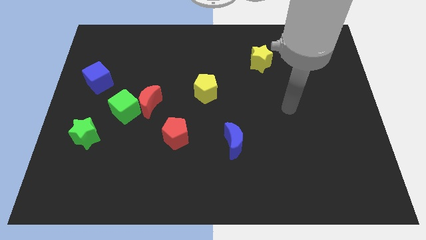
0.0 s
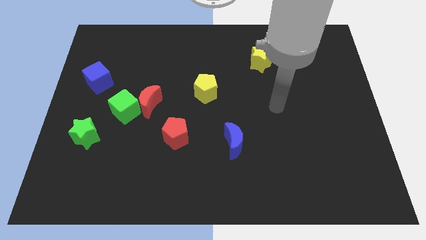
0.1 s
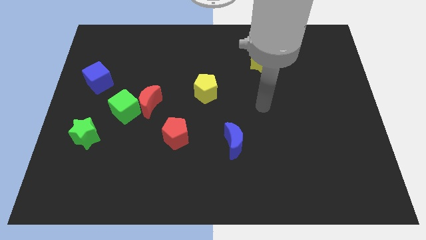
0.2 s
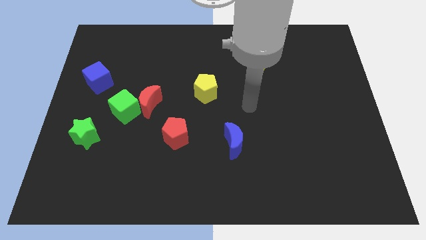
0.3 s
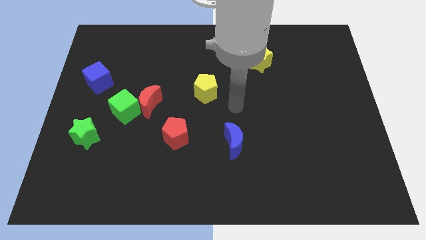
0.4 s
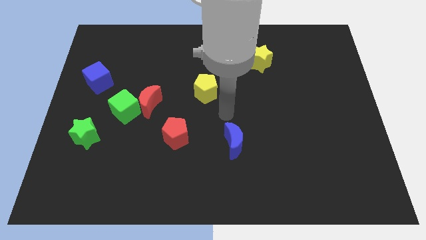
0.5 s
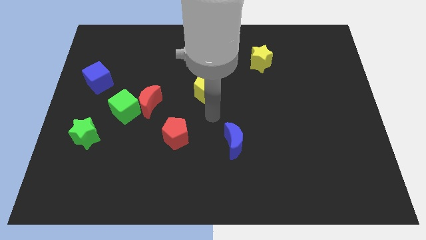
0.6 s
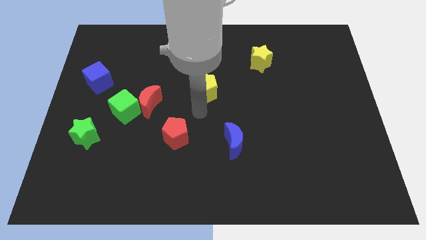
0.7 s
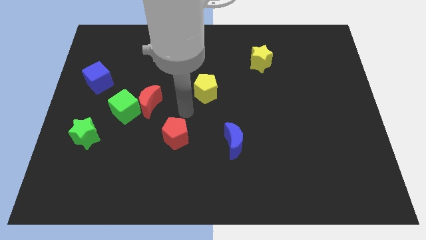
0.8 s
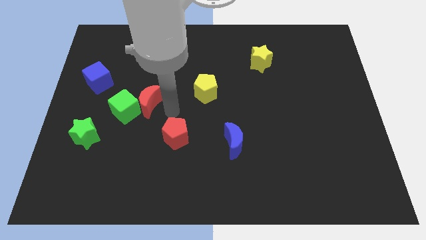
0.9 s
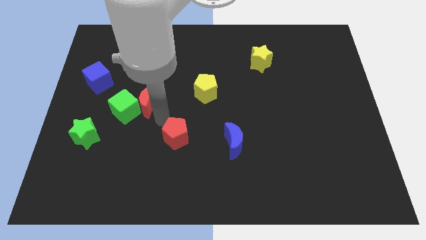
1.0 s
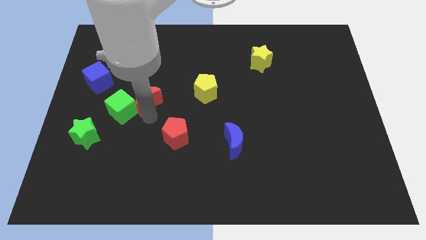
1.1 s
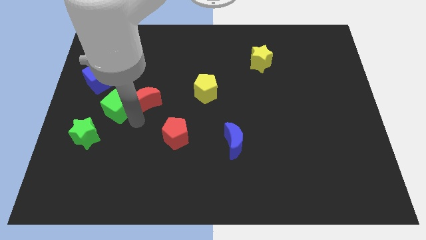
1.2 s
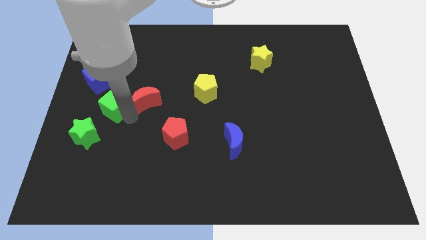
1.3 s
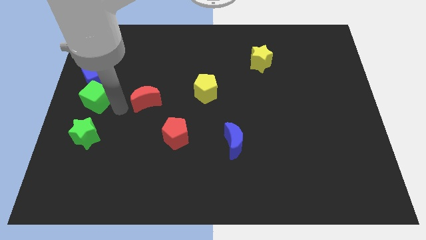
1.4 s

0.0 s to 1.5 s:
pull the red moon apart from the green cube

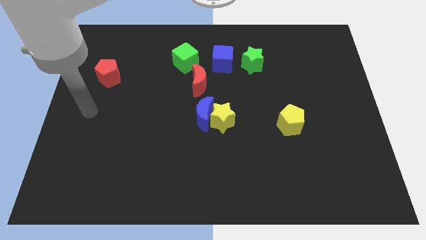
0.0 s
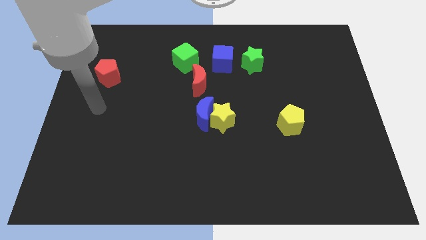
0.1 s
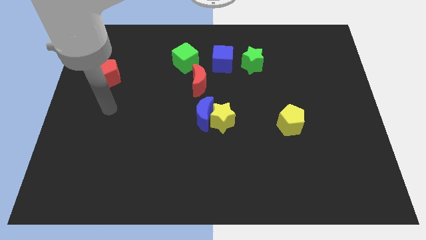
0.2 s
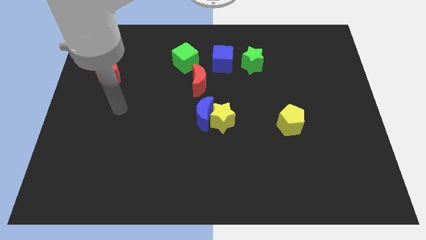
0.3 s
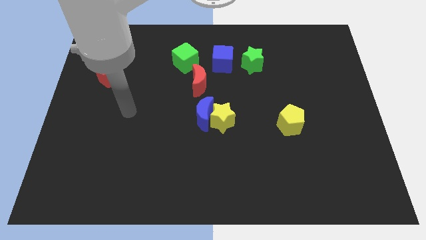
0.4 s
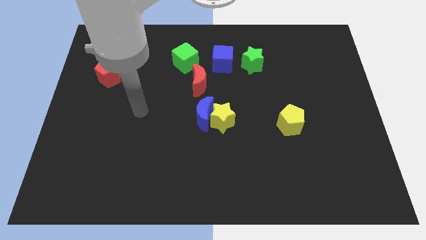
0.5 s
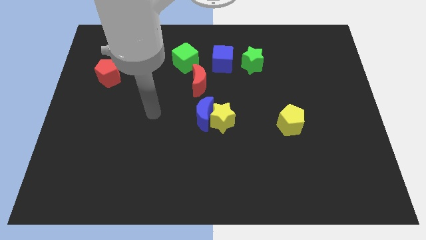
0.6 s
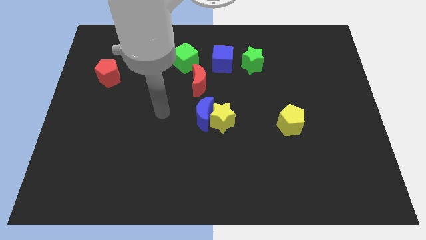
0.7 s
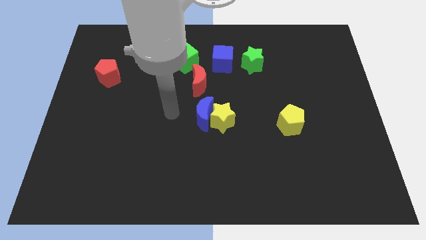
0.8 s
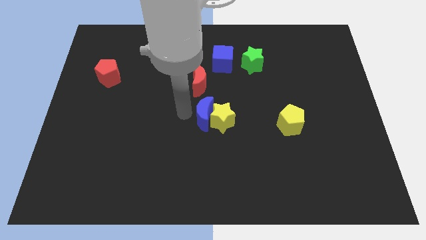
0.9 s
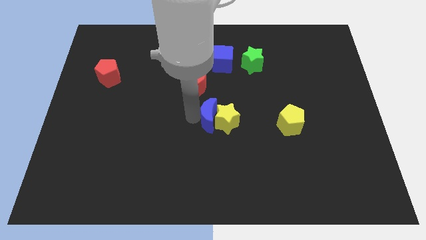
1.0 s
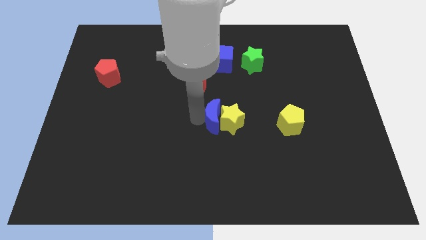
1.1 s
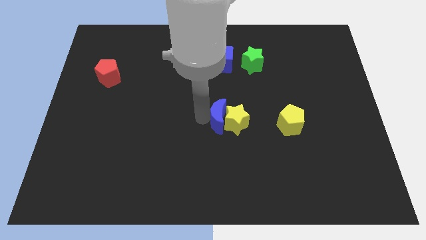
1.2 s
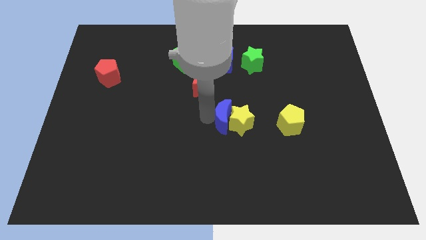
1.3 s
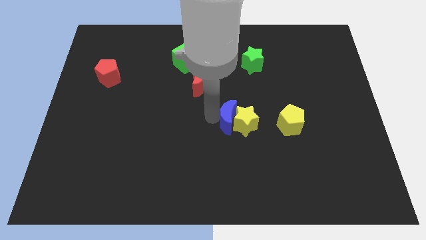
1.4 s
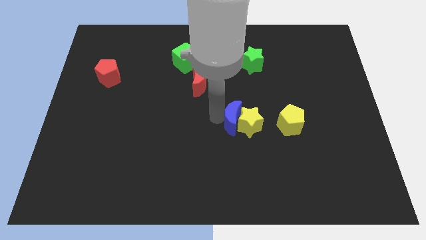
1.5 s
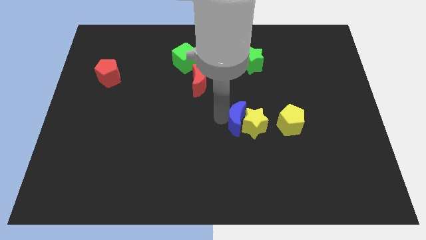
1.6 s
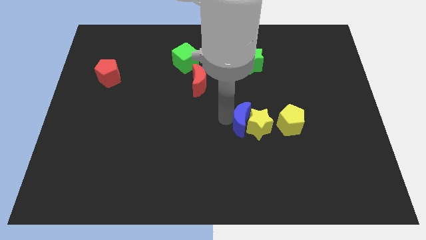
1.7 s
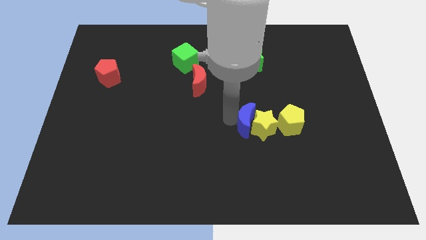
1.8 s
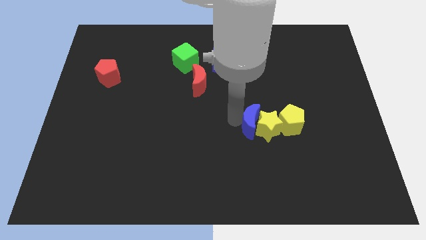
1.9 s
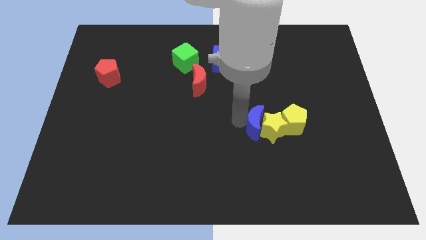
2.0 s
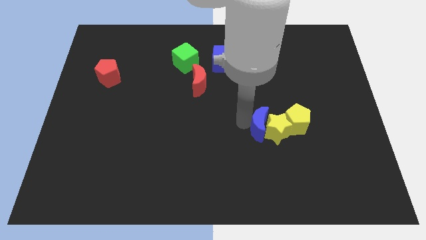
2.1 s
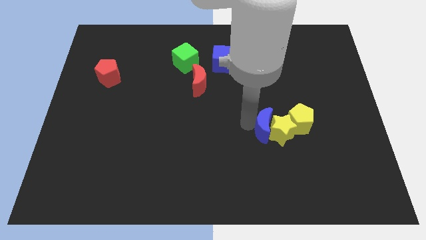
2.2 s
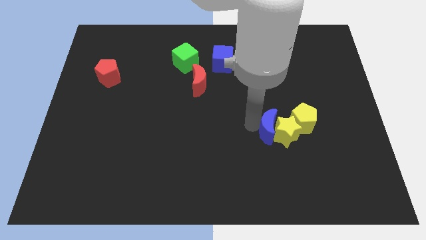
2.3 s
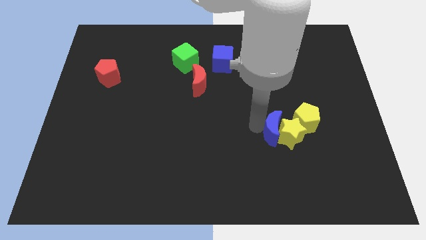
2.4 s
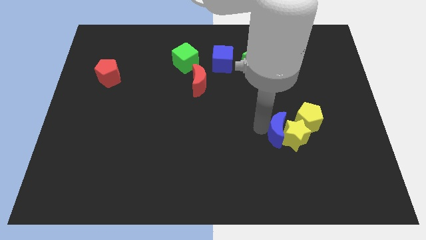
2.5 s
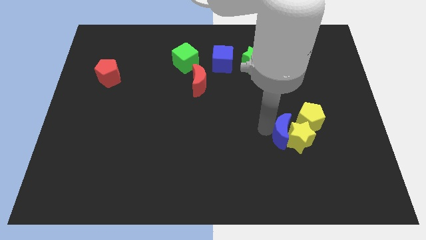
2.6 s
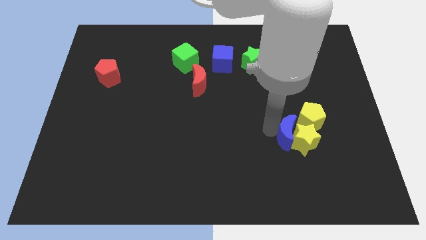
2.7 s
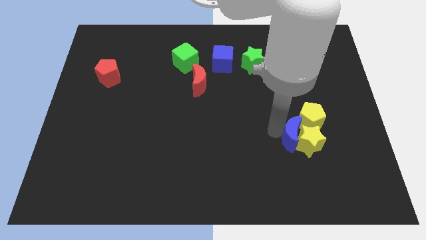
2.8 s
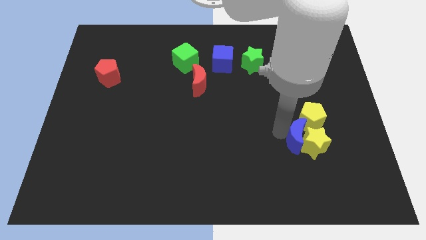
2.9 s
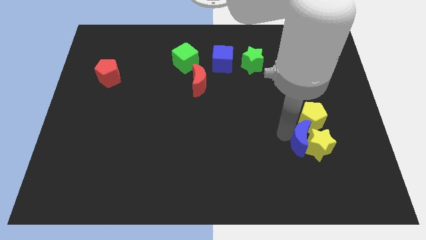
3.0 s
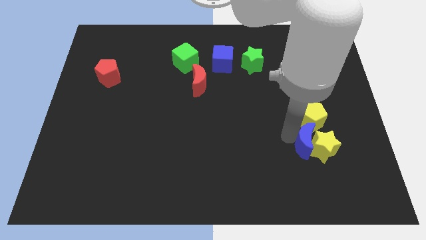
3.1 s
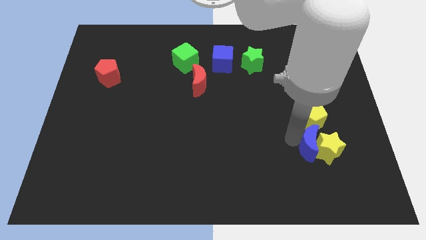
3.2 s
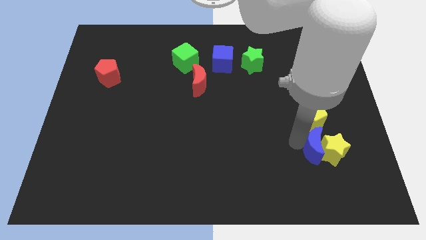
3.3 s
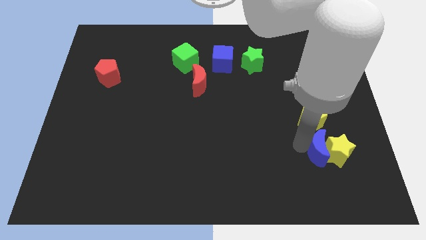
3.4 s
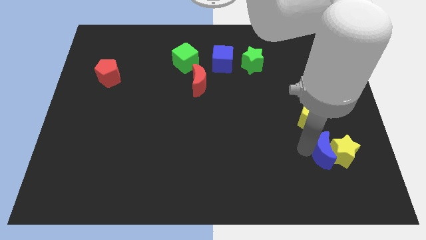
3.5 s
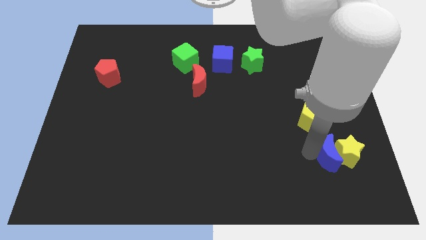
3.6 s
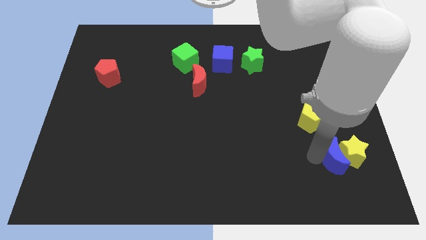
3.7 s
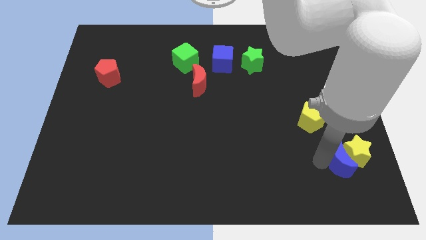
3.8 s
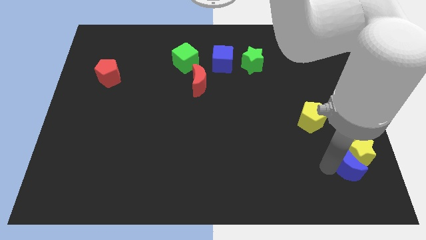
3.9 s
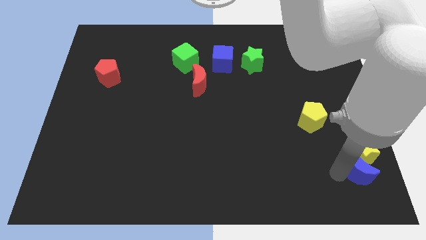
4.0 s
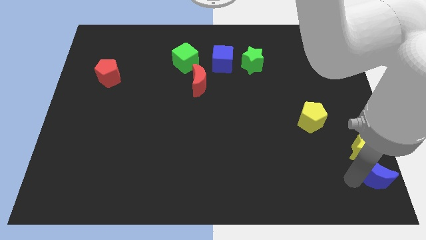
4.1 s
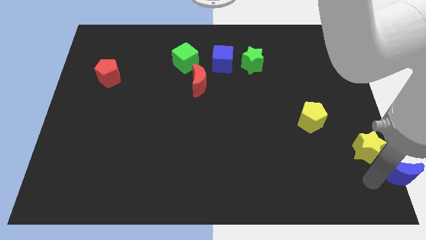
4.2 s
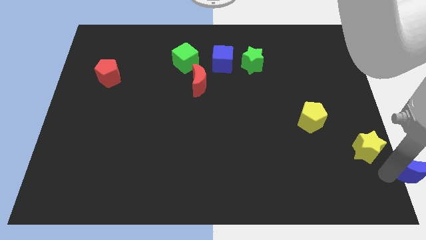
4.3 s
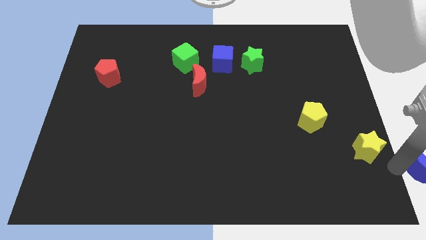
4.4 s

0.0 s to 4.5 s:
move the yellow star away from the blue moon

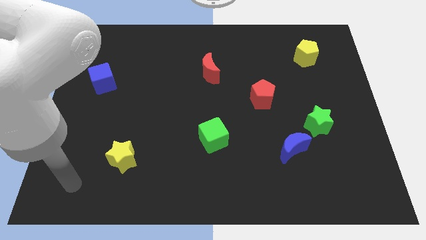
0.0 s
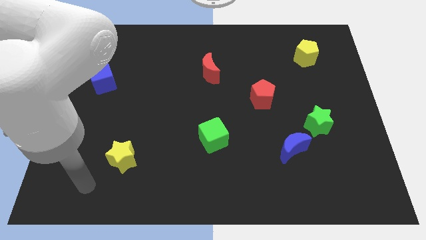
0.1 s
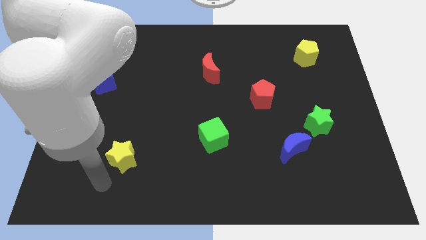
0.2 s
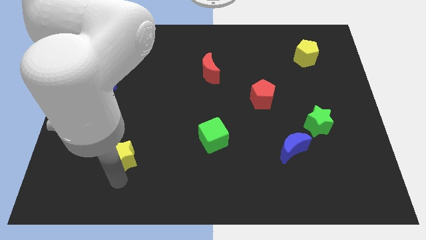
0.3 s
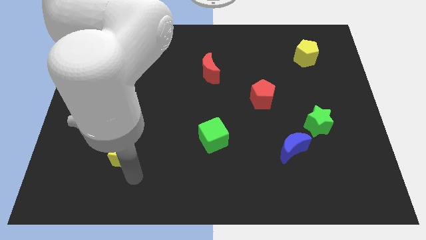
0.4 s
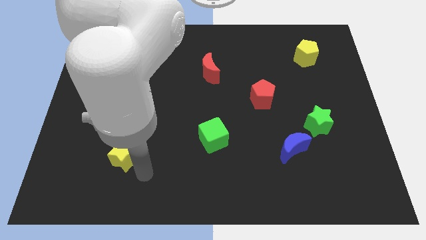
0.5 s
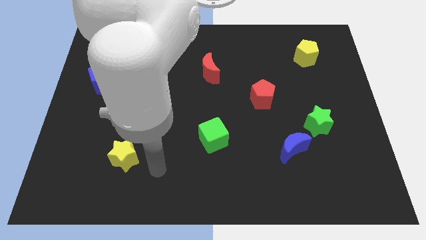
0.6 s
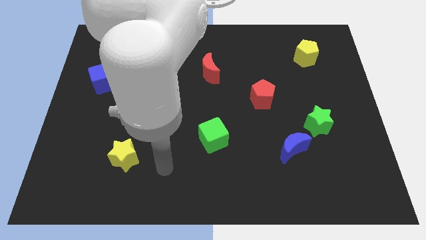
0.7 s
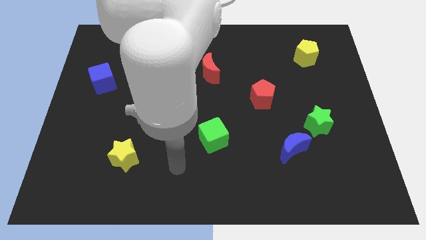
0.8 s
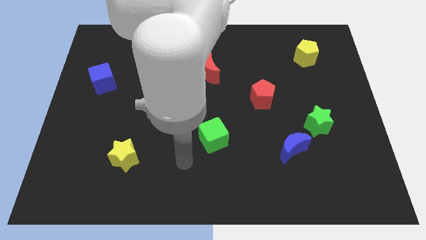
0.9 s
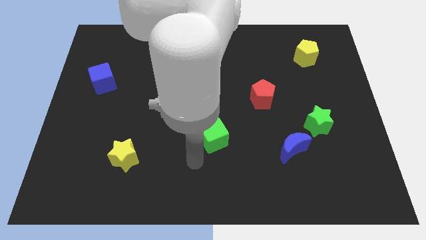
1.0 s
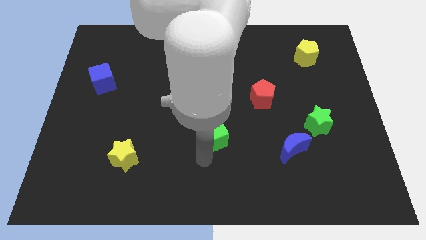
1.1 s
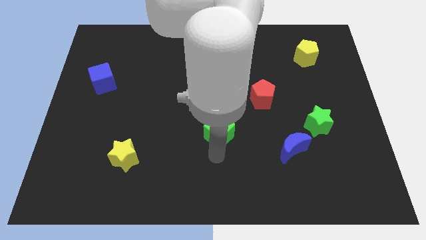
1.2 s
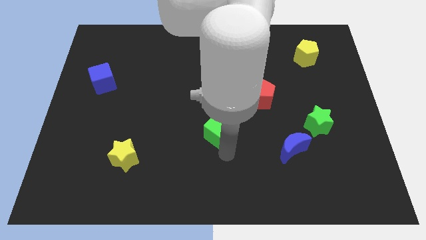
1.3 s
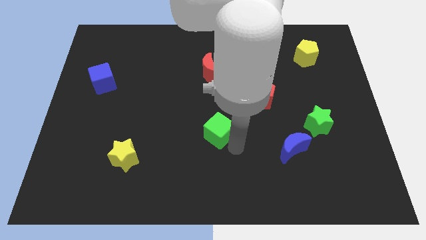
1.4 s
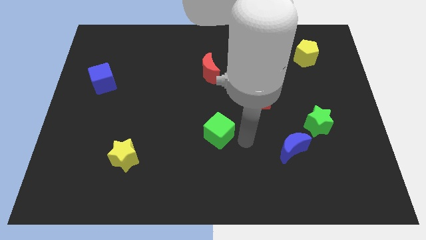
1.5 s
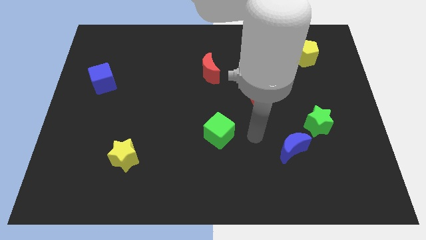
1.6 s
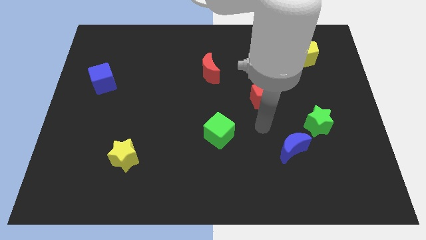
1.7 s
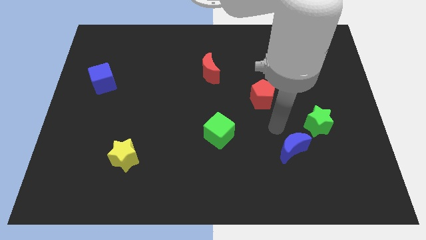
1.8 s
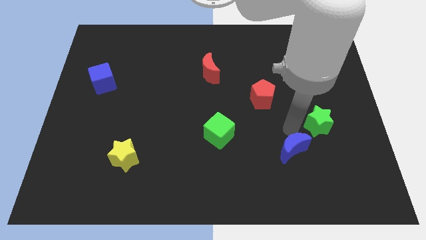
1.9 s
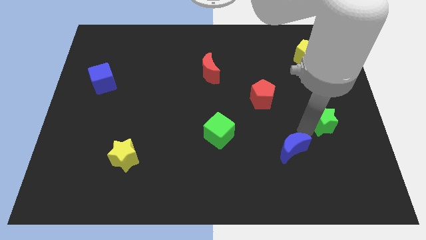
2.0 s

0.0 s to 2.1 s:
separate the blue moon from the green star

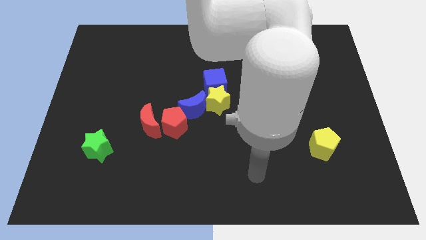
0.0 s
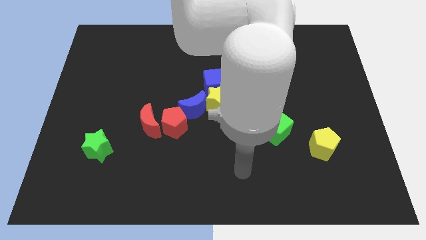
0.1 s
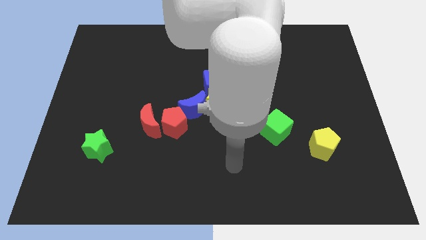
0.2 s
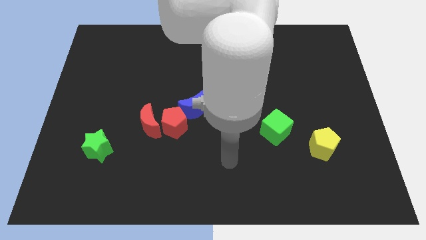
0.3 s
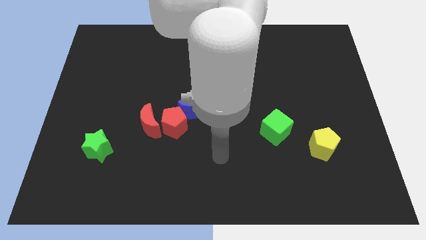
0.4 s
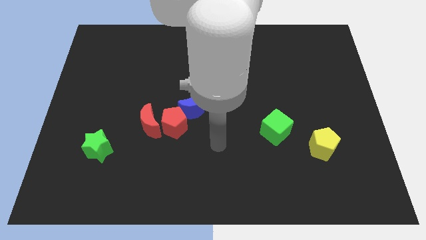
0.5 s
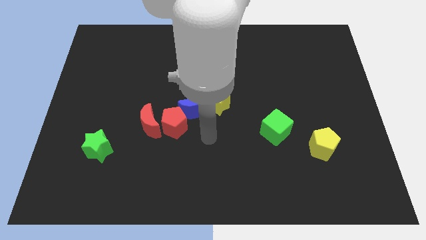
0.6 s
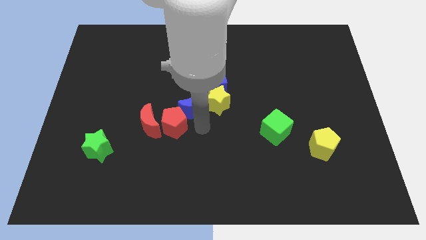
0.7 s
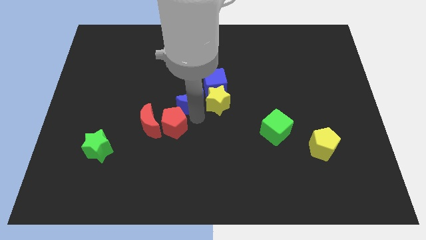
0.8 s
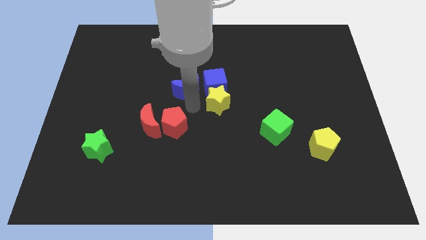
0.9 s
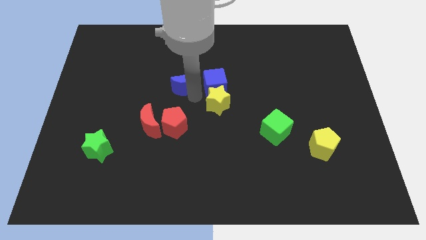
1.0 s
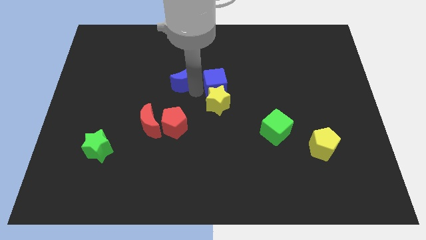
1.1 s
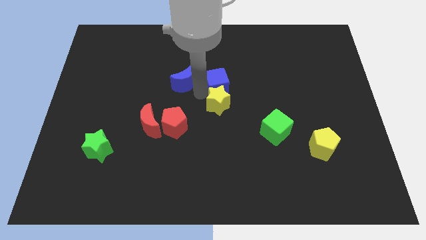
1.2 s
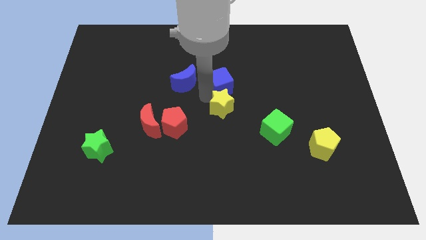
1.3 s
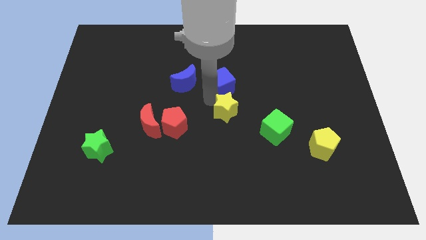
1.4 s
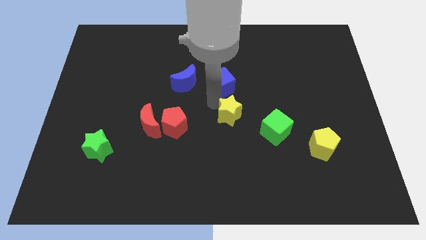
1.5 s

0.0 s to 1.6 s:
move the yellow star away from the blue cube and blue moon
